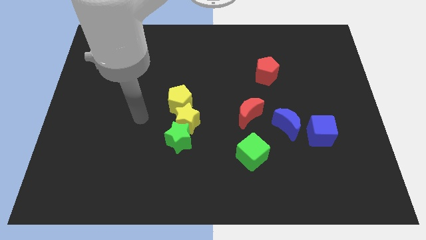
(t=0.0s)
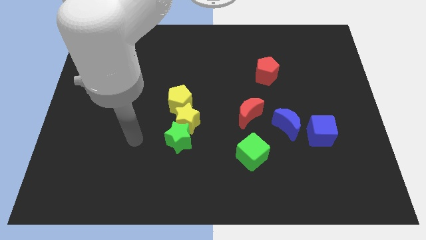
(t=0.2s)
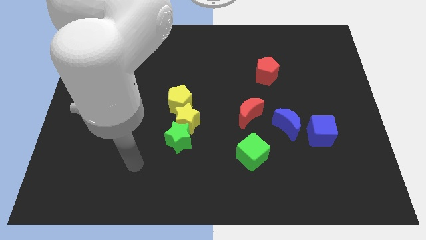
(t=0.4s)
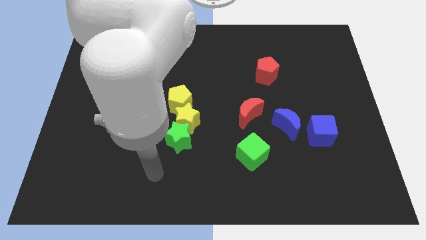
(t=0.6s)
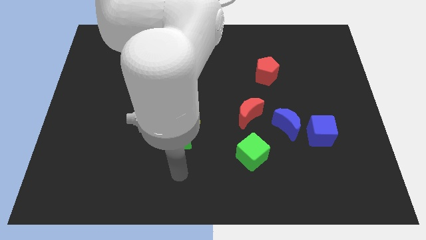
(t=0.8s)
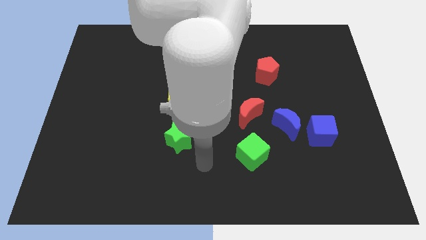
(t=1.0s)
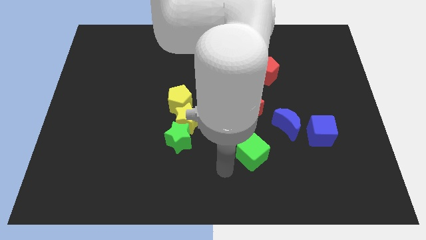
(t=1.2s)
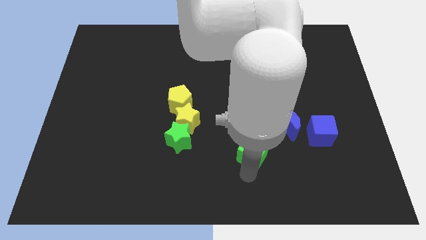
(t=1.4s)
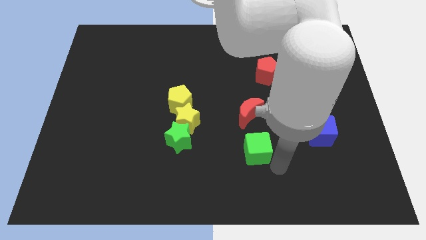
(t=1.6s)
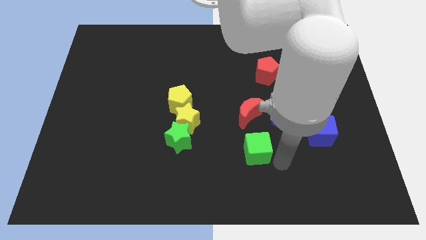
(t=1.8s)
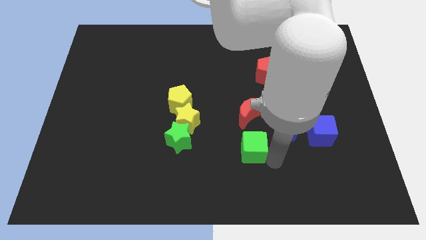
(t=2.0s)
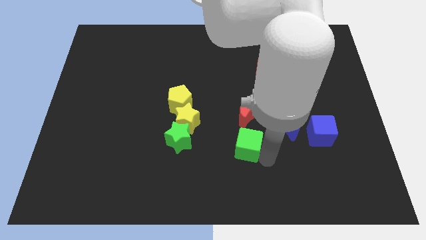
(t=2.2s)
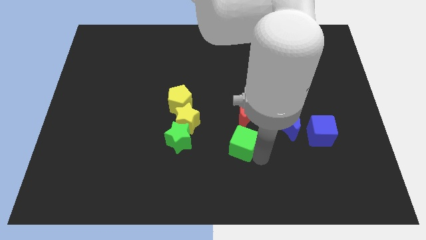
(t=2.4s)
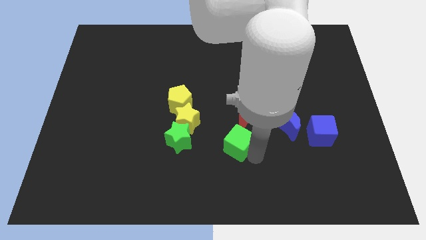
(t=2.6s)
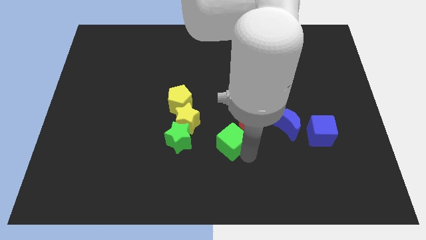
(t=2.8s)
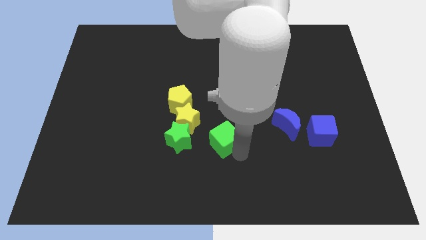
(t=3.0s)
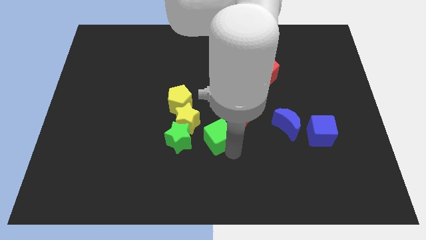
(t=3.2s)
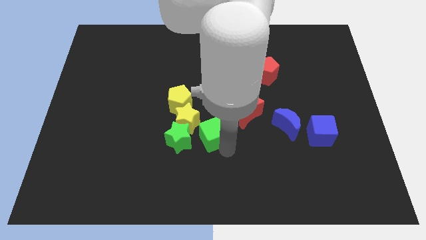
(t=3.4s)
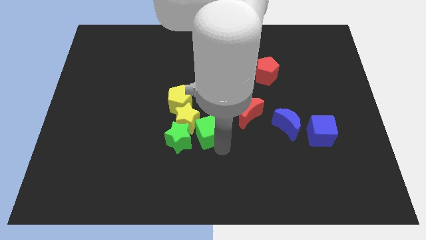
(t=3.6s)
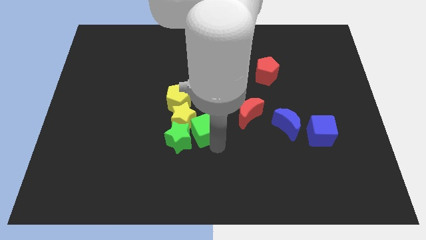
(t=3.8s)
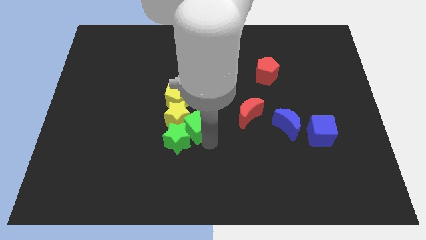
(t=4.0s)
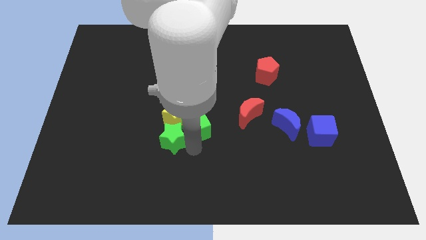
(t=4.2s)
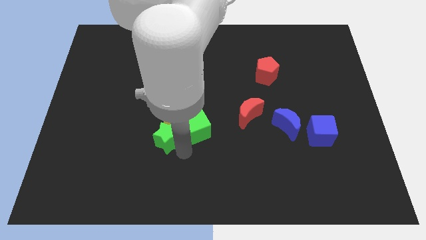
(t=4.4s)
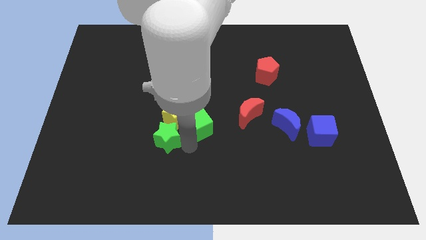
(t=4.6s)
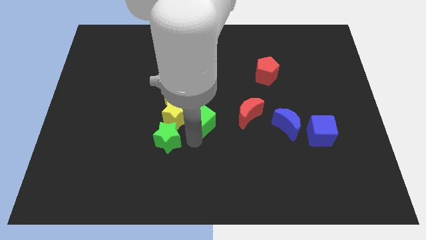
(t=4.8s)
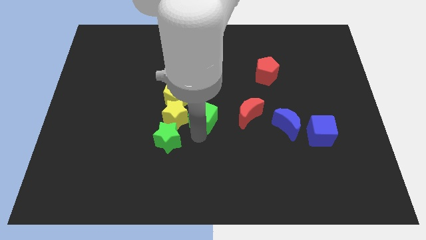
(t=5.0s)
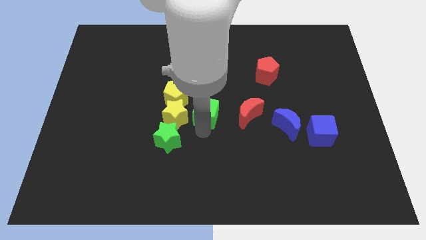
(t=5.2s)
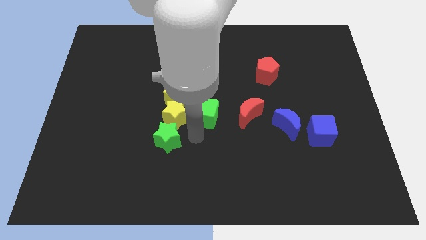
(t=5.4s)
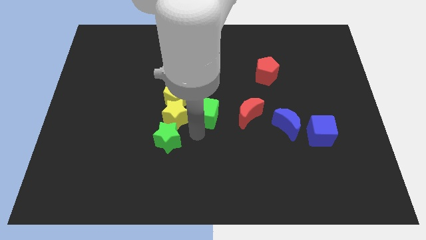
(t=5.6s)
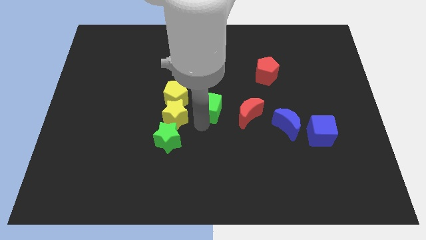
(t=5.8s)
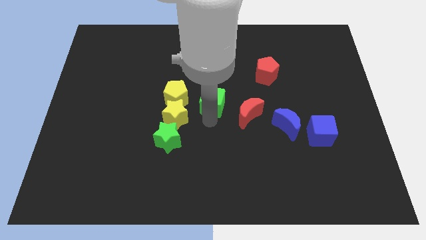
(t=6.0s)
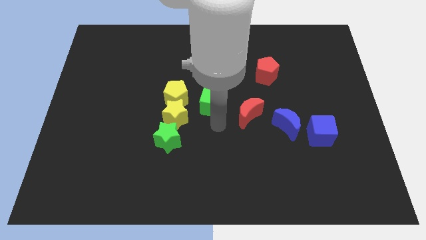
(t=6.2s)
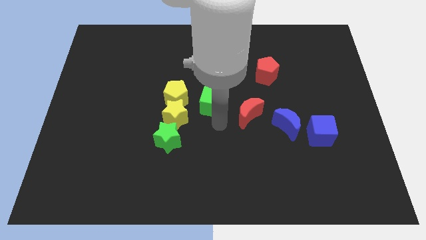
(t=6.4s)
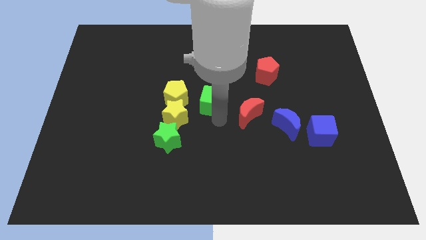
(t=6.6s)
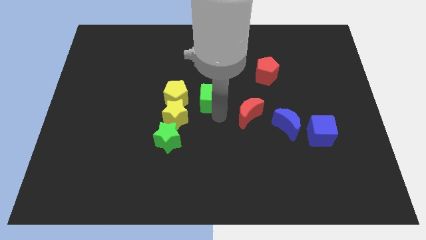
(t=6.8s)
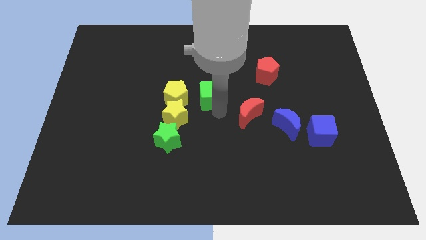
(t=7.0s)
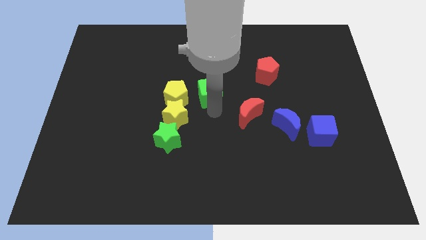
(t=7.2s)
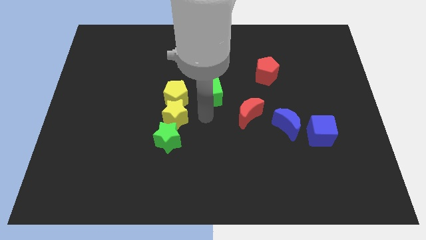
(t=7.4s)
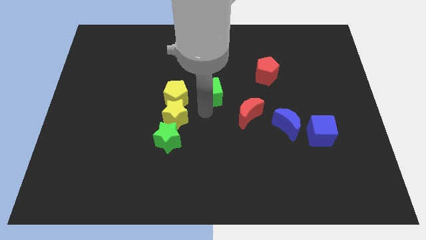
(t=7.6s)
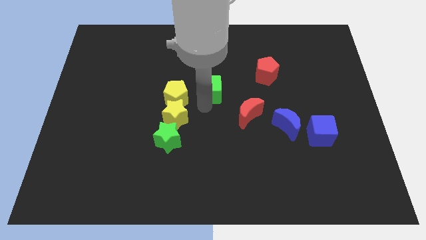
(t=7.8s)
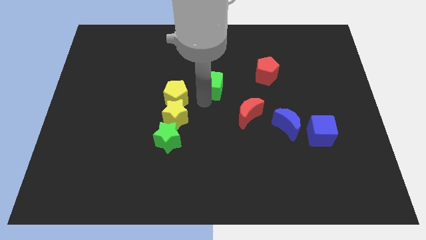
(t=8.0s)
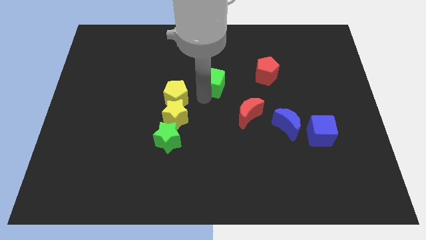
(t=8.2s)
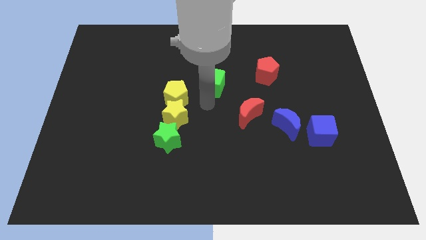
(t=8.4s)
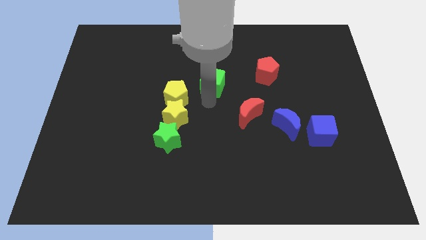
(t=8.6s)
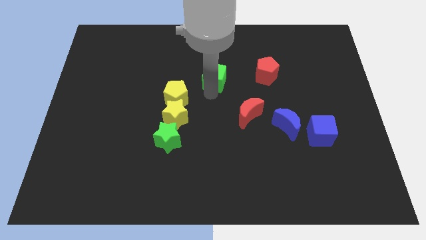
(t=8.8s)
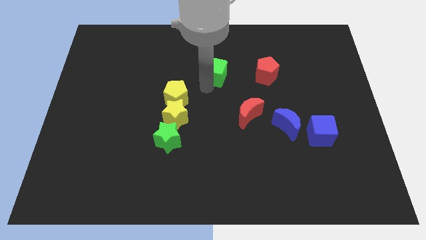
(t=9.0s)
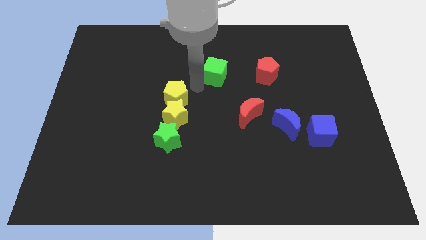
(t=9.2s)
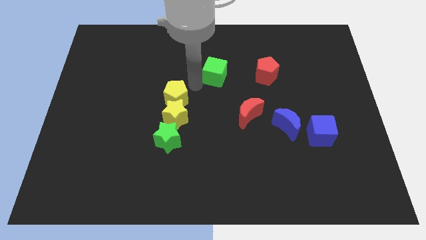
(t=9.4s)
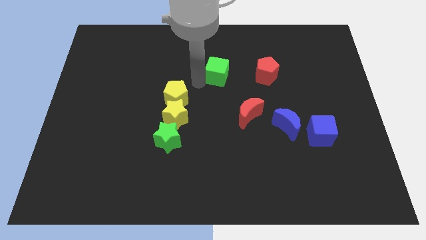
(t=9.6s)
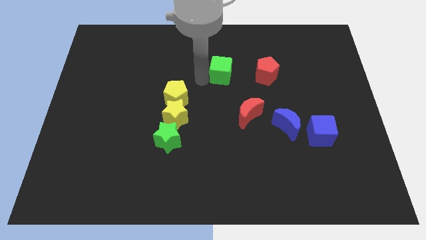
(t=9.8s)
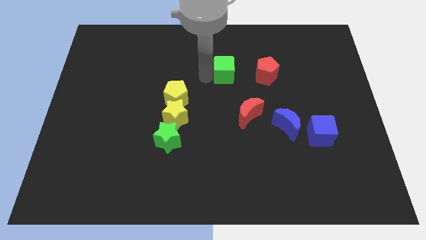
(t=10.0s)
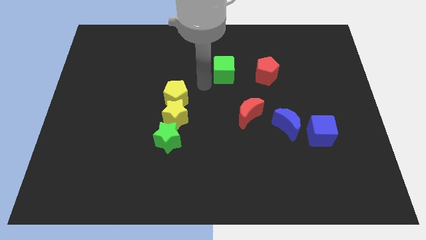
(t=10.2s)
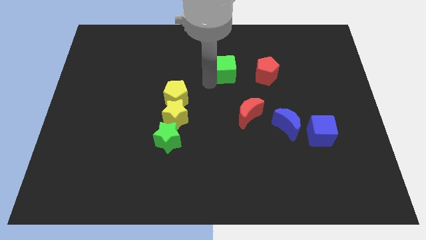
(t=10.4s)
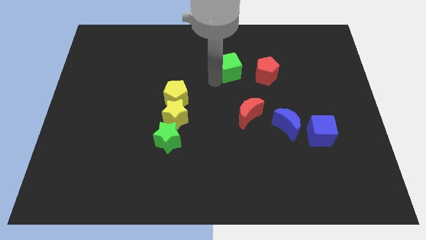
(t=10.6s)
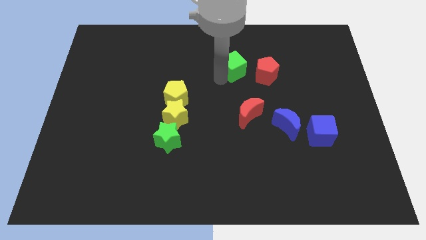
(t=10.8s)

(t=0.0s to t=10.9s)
put the green cube diagonally up and to the left of the red pentagon
